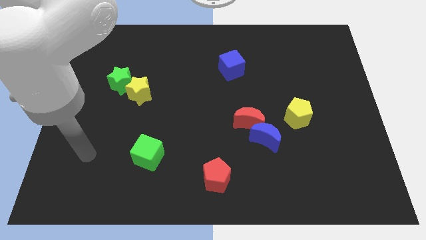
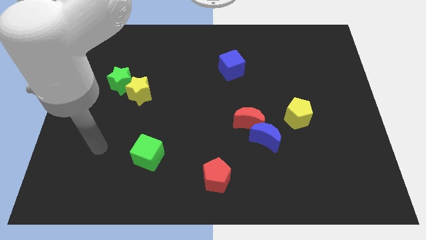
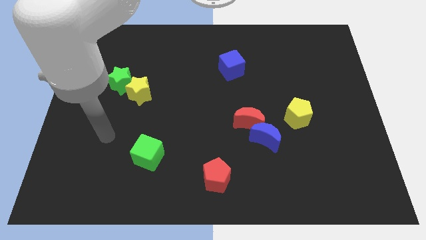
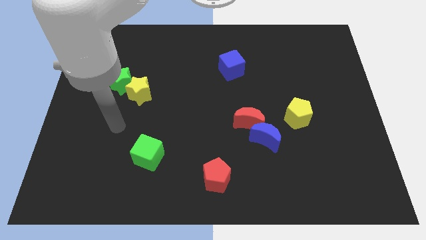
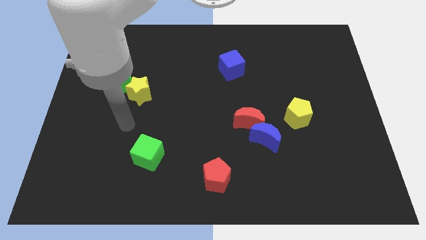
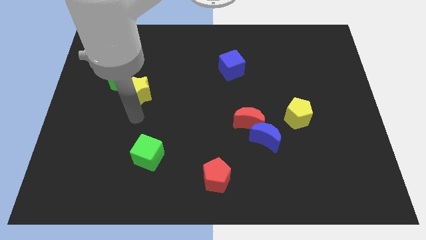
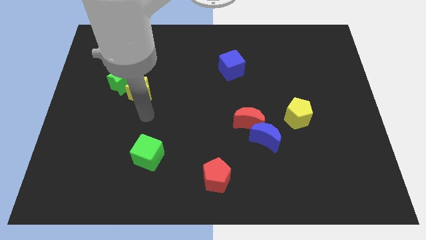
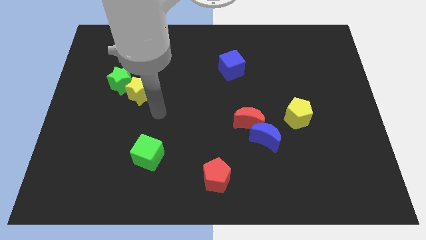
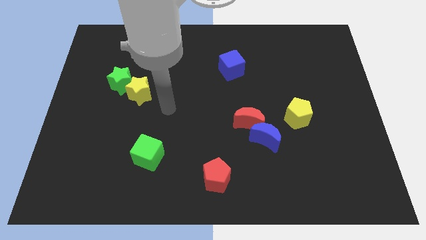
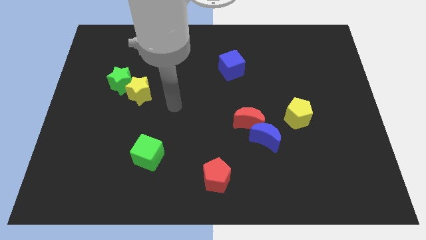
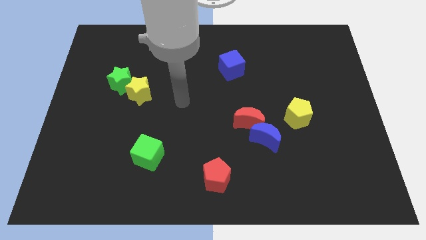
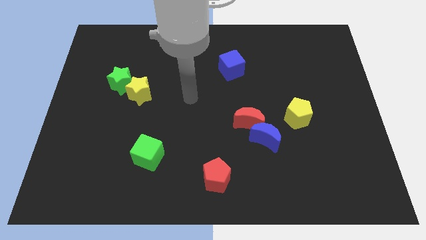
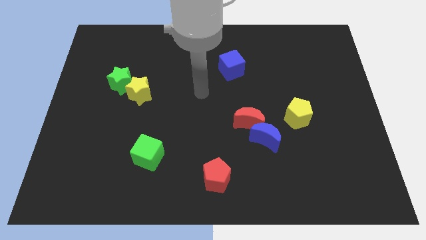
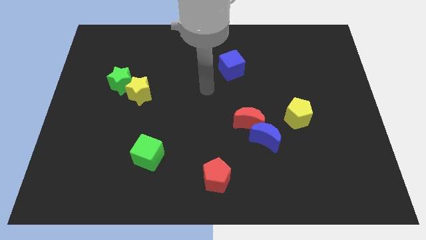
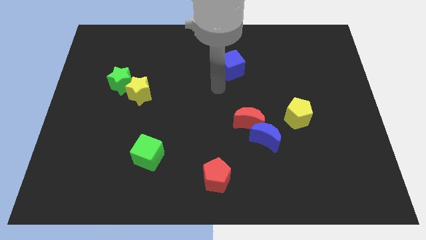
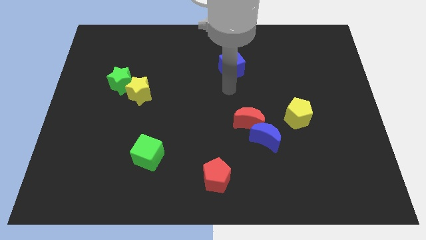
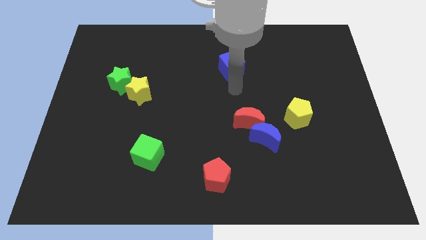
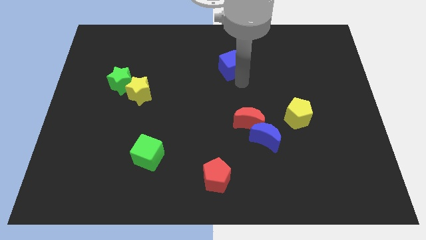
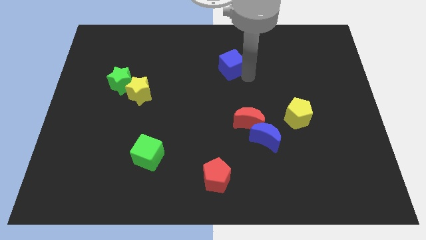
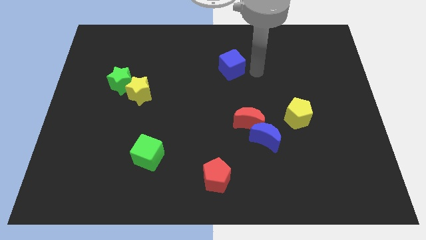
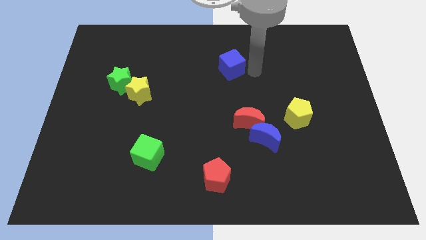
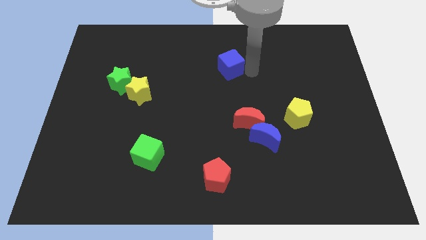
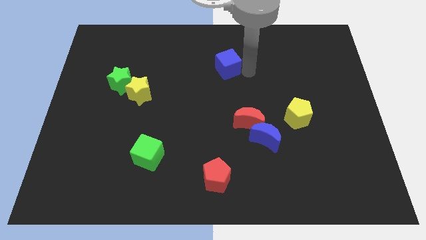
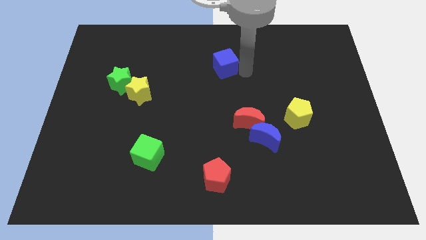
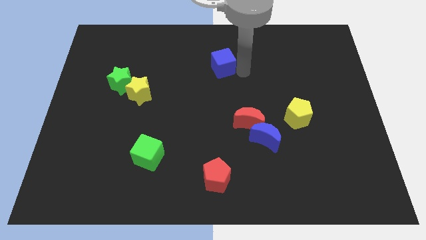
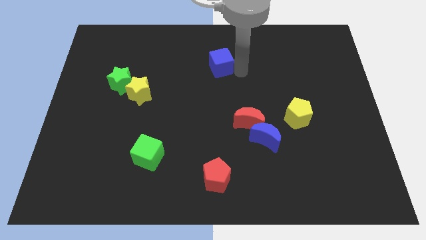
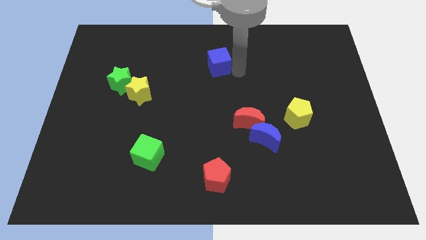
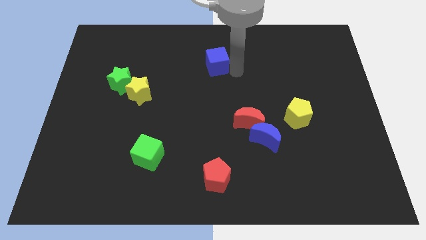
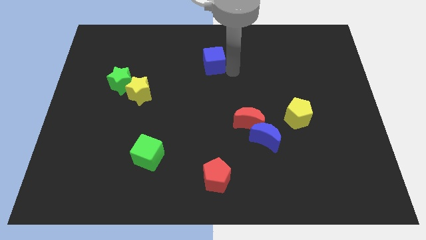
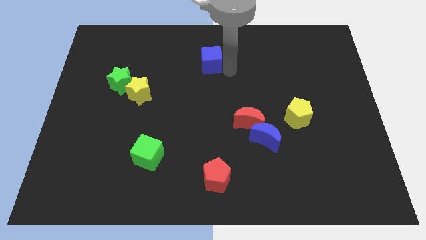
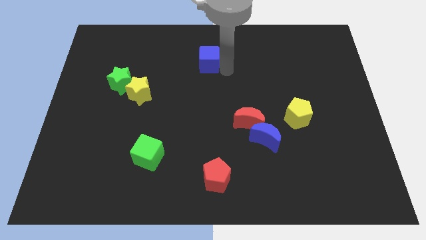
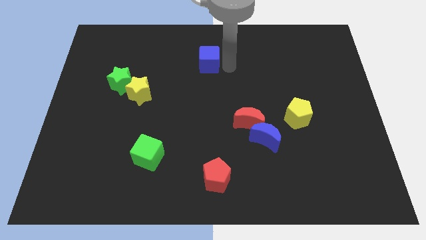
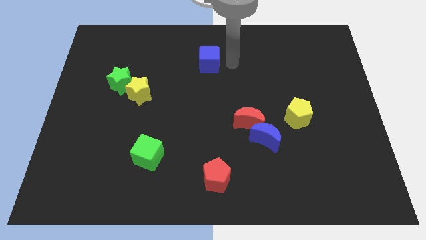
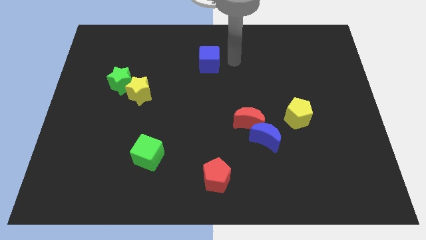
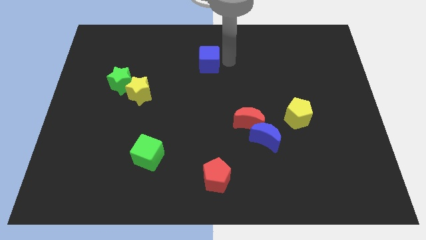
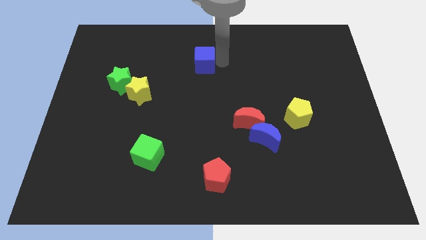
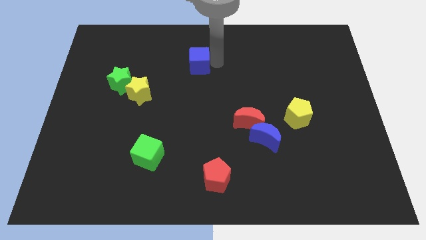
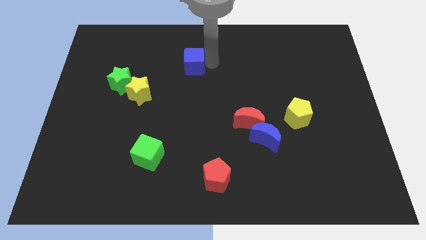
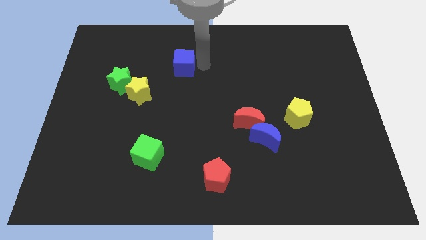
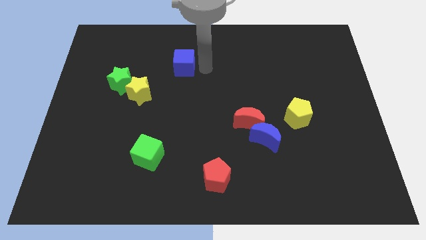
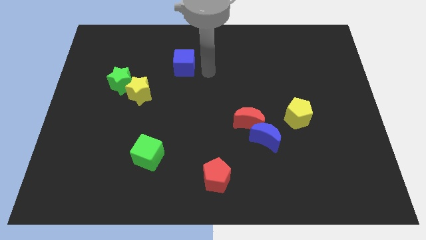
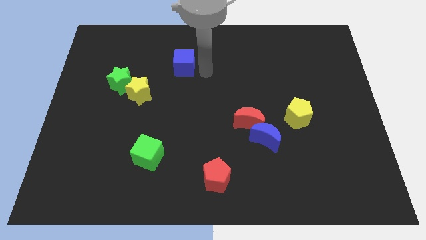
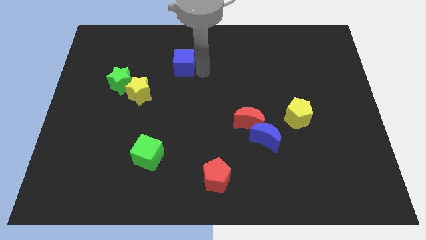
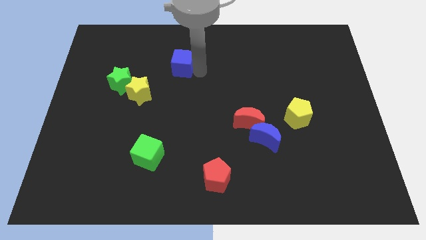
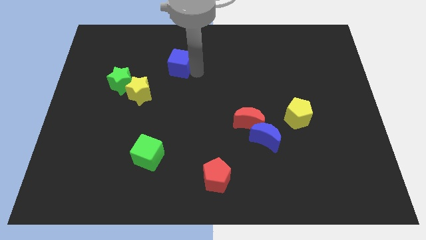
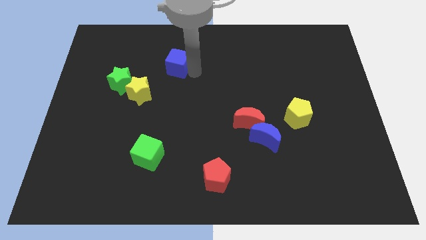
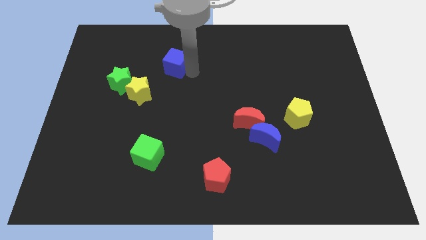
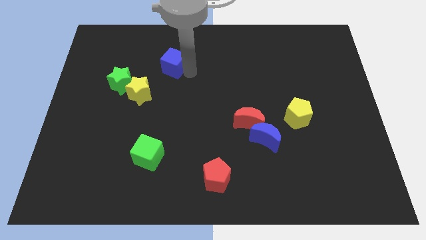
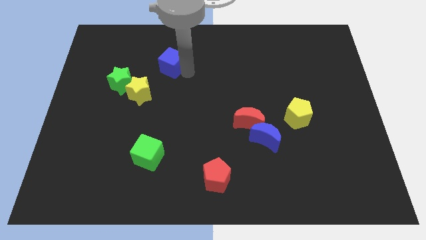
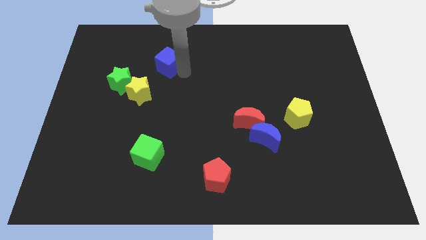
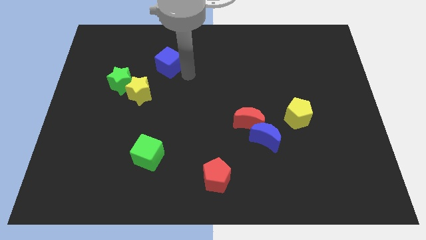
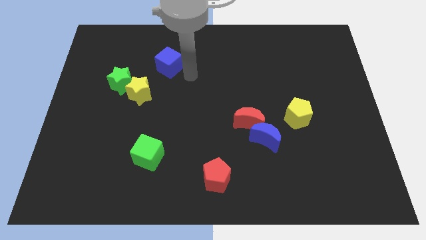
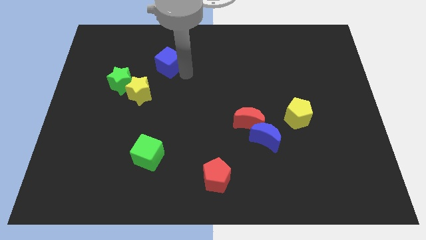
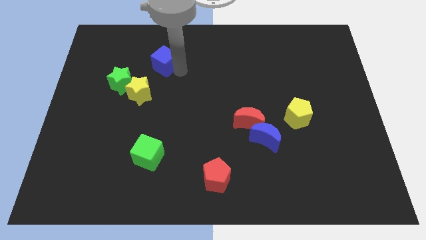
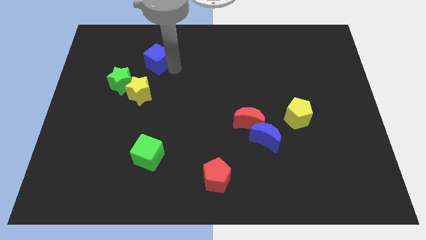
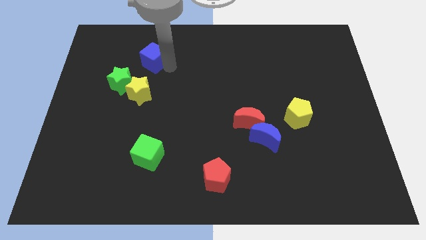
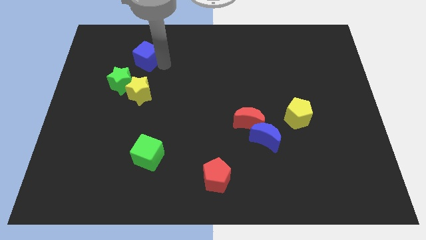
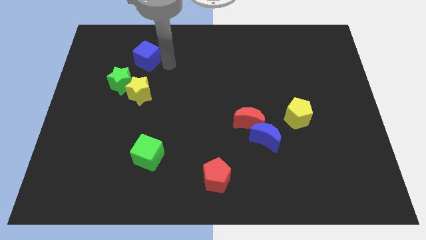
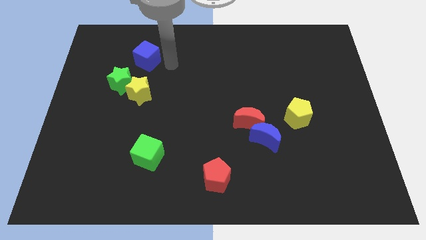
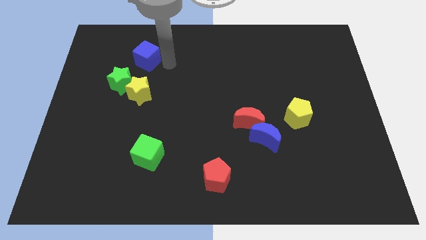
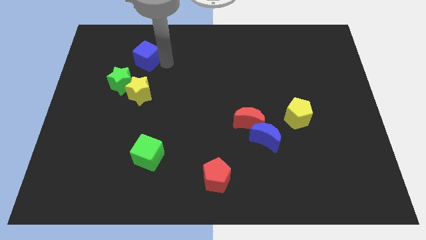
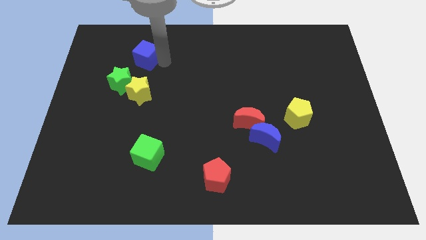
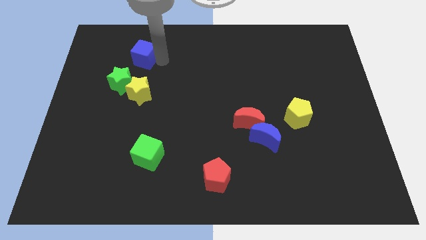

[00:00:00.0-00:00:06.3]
put the blue cube to the top side of the green star

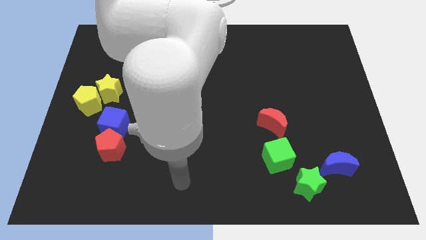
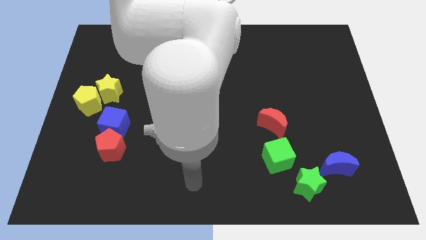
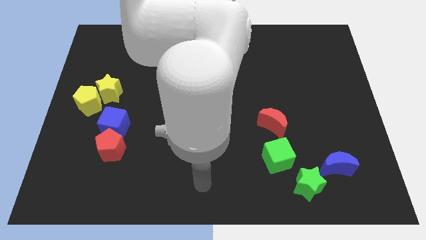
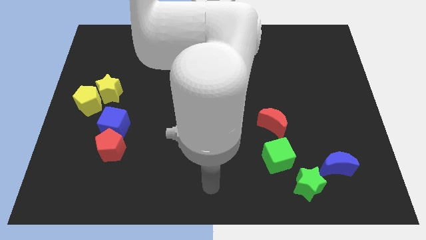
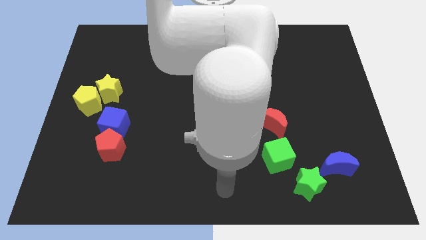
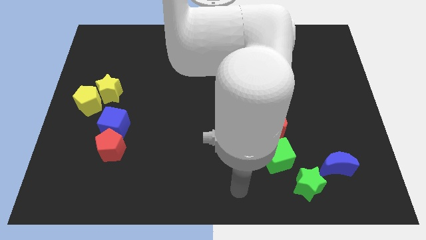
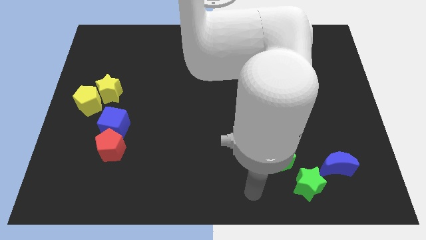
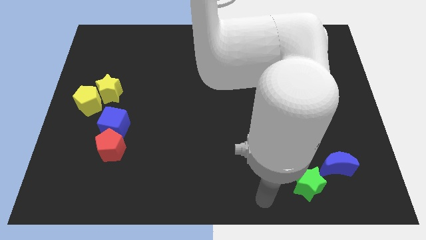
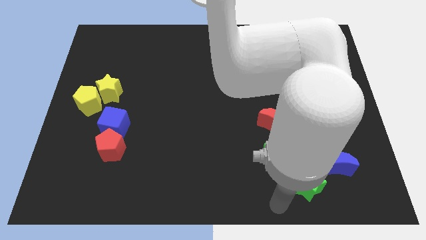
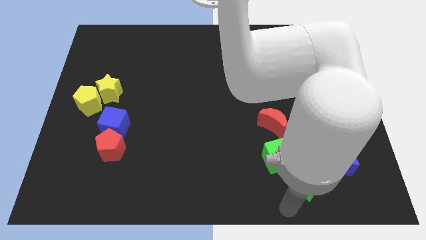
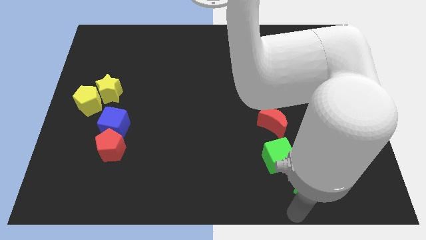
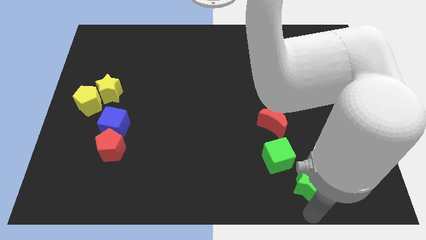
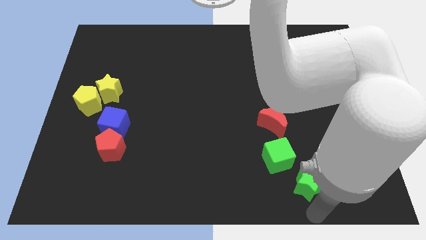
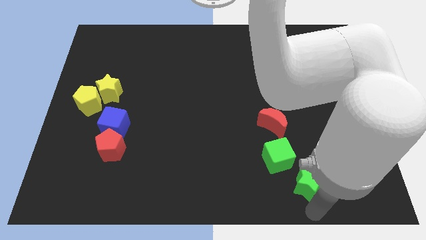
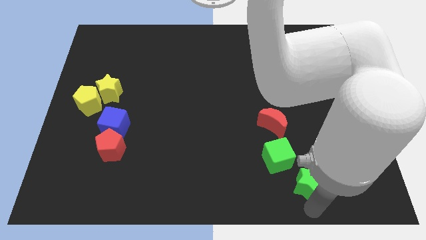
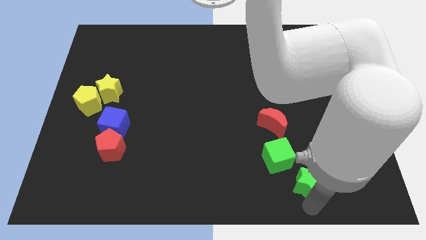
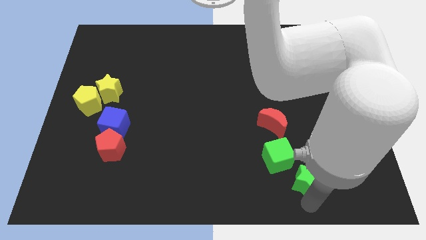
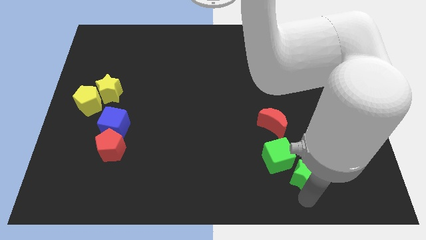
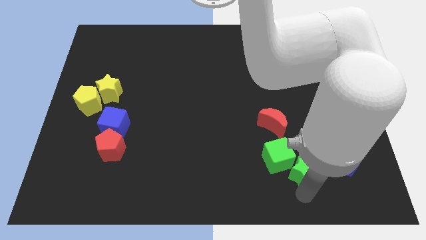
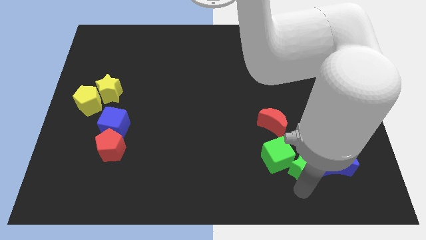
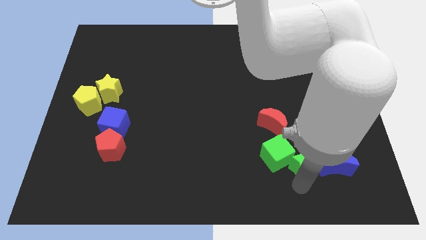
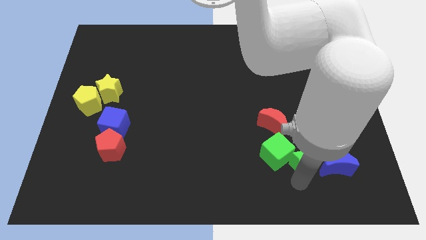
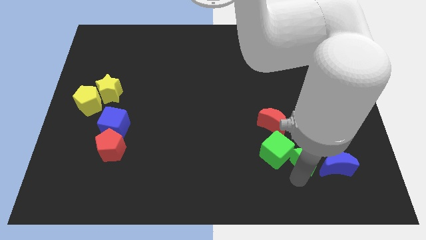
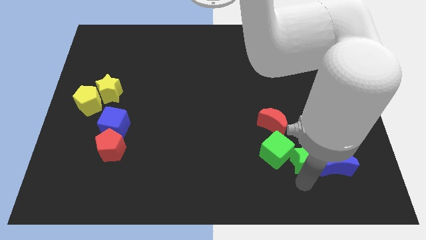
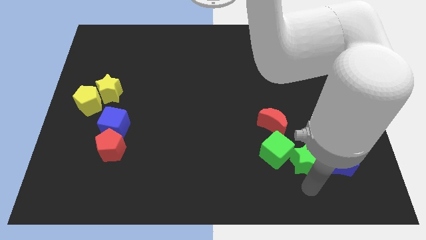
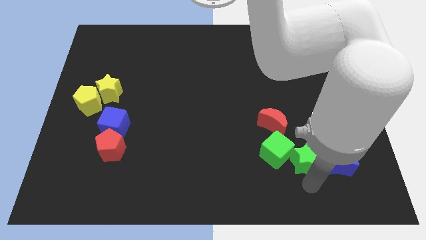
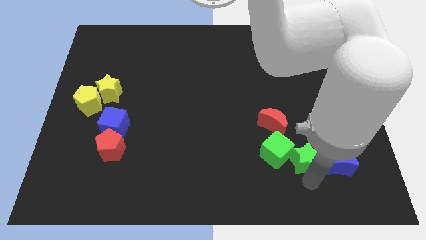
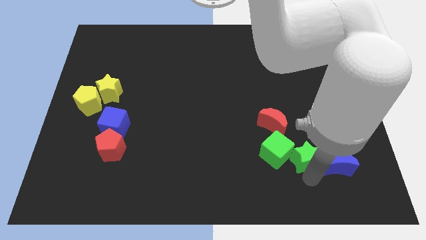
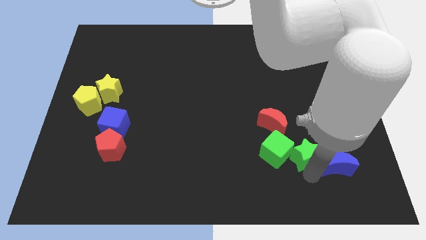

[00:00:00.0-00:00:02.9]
put the green star to the top right side of the green cube
